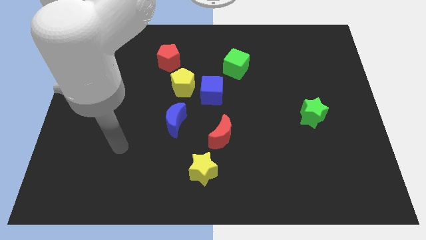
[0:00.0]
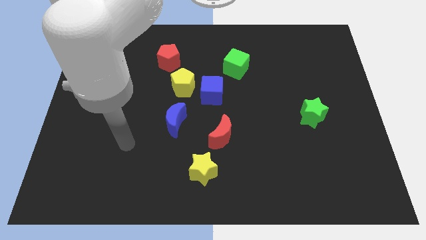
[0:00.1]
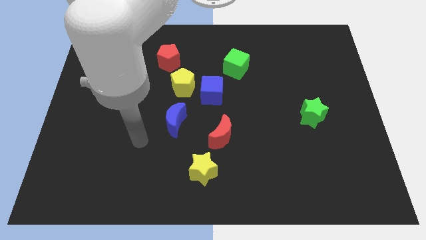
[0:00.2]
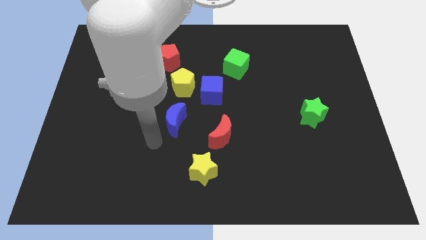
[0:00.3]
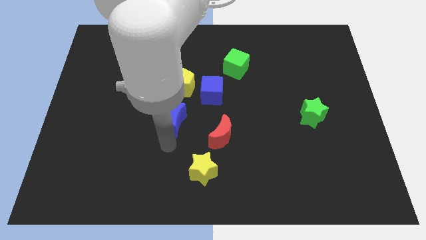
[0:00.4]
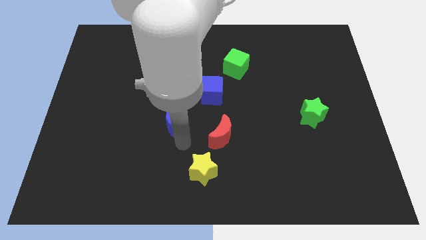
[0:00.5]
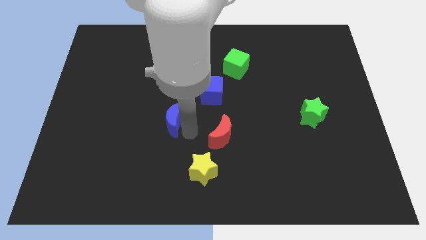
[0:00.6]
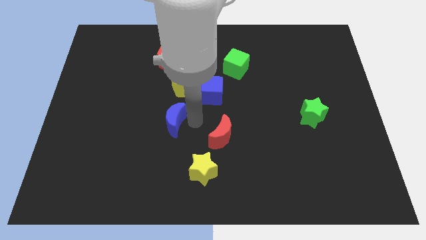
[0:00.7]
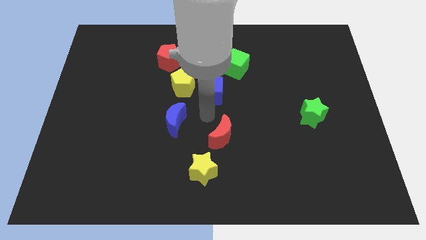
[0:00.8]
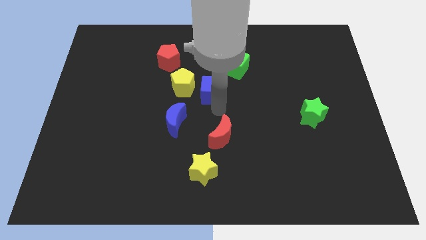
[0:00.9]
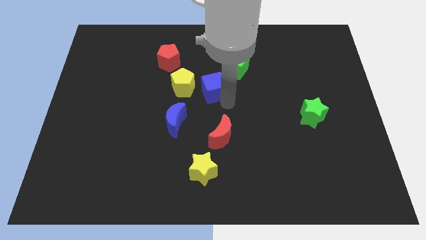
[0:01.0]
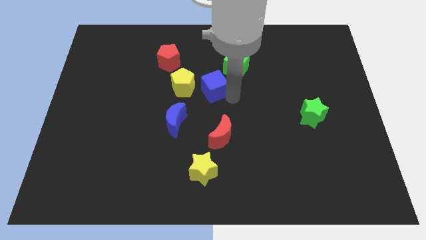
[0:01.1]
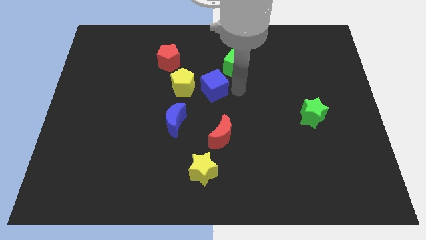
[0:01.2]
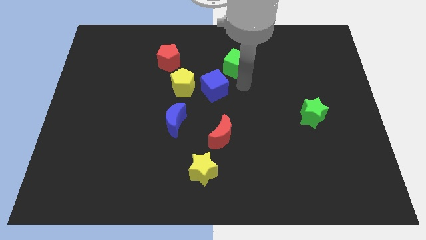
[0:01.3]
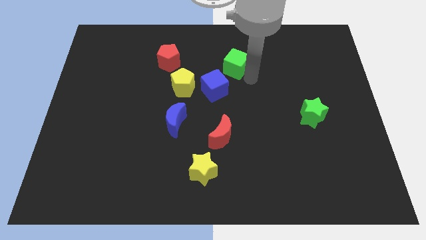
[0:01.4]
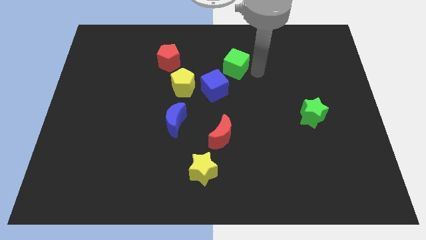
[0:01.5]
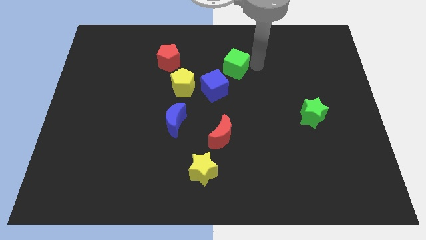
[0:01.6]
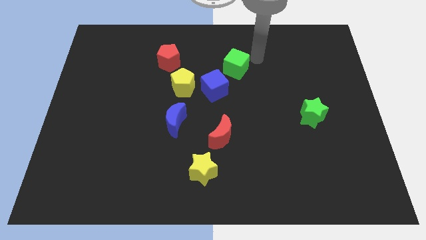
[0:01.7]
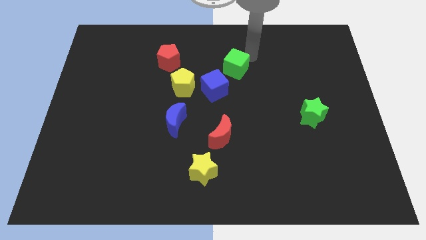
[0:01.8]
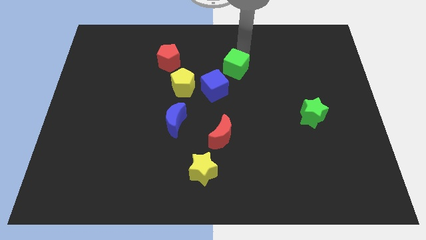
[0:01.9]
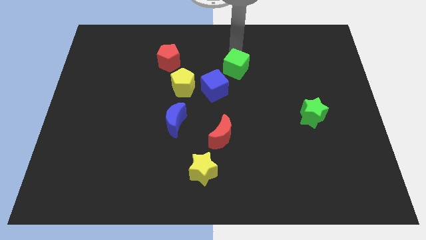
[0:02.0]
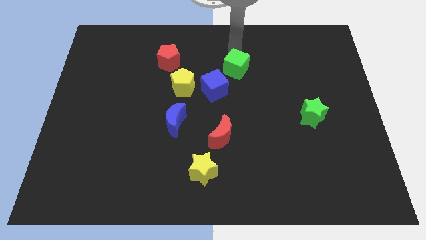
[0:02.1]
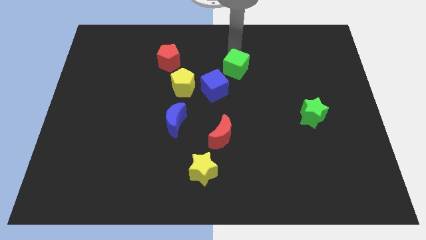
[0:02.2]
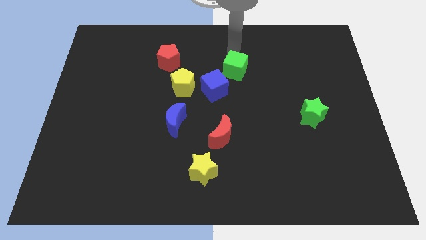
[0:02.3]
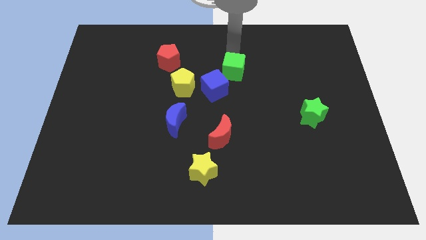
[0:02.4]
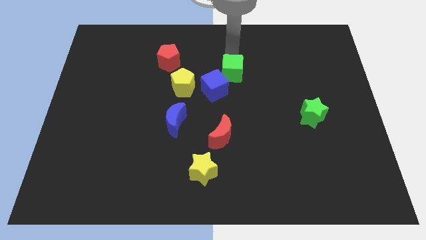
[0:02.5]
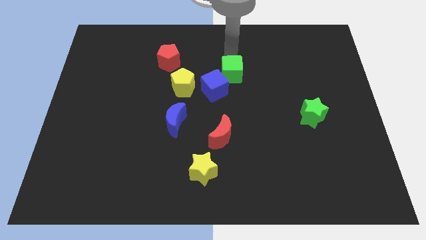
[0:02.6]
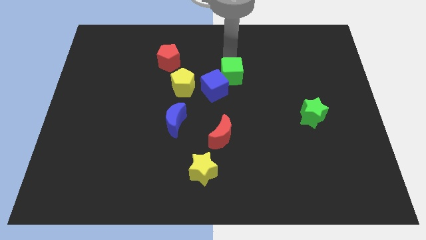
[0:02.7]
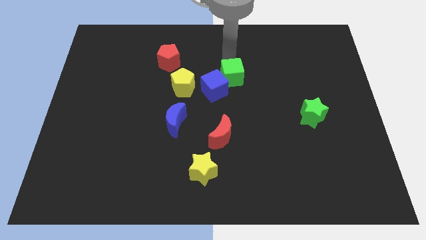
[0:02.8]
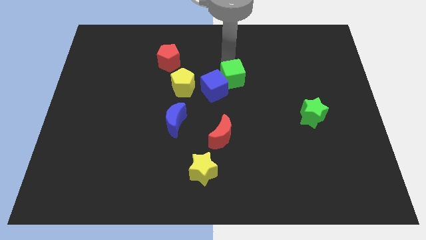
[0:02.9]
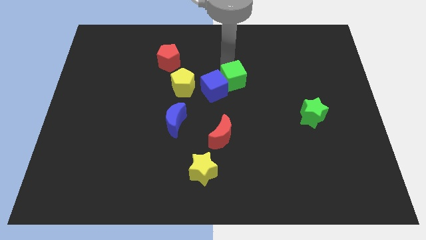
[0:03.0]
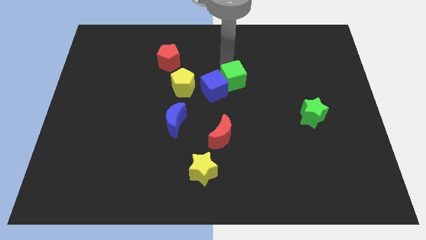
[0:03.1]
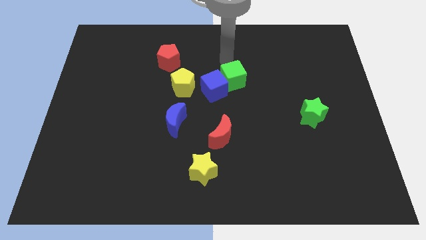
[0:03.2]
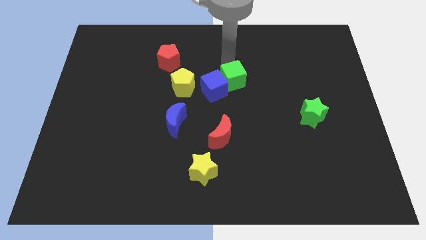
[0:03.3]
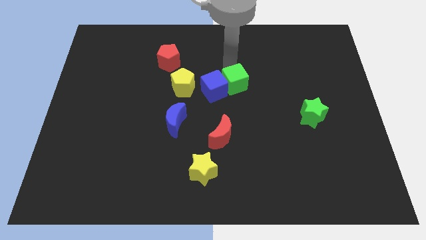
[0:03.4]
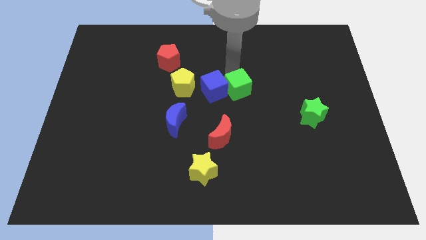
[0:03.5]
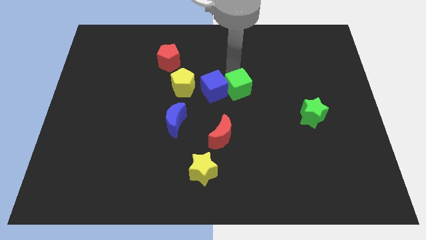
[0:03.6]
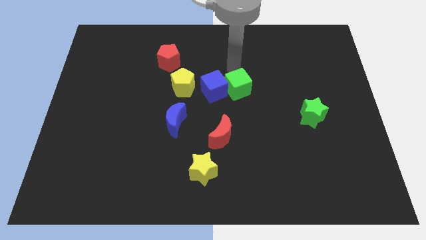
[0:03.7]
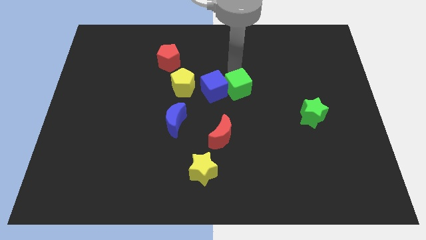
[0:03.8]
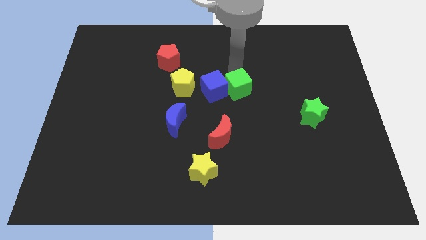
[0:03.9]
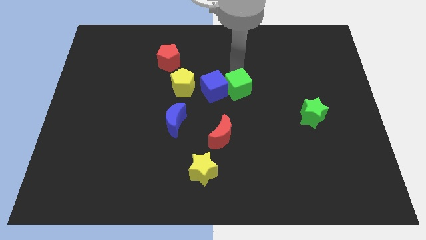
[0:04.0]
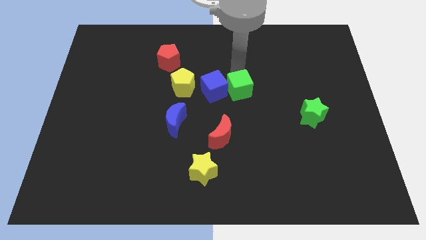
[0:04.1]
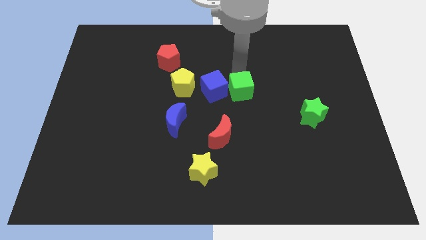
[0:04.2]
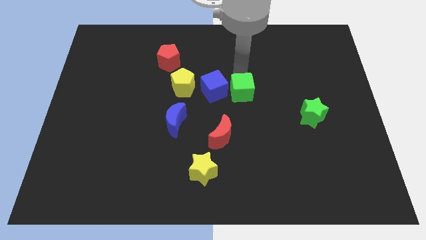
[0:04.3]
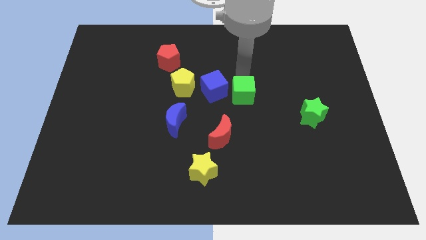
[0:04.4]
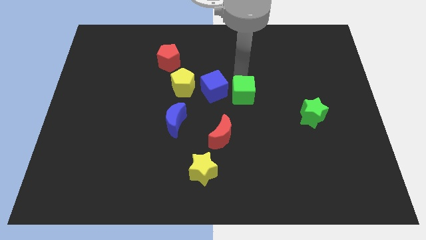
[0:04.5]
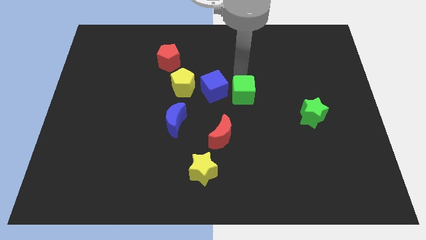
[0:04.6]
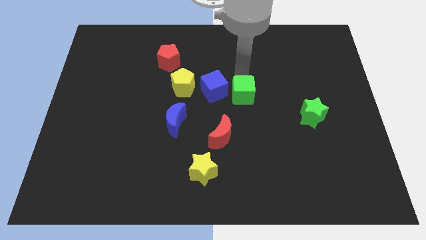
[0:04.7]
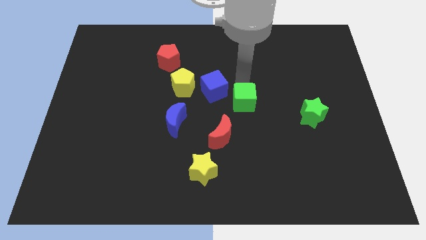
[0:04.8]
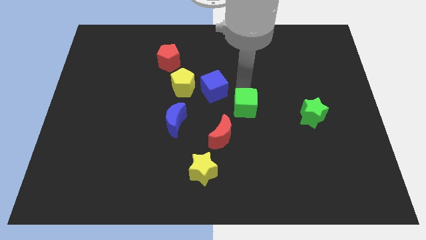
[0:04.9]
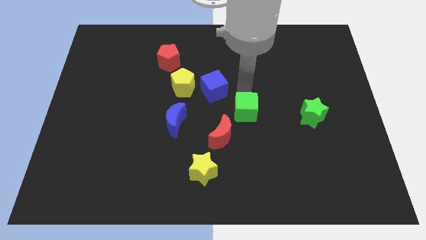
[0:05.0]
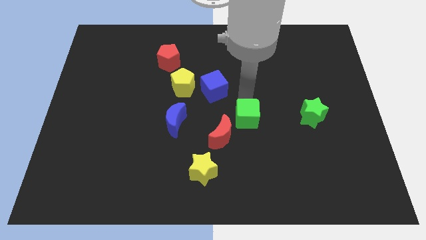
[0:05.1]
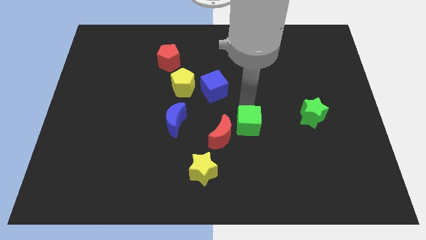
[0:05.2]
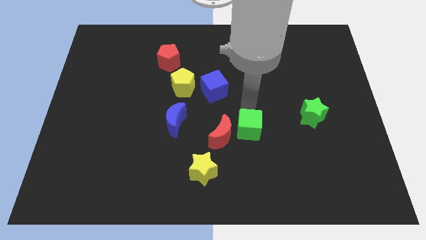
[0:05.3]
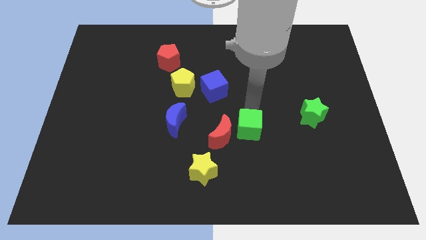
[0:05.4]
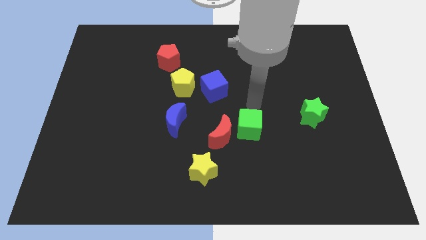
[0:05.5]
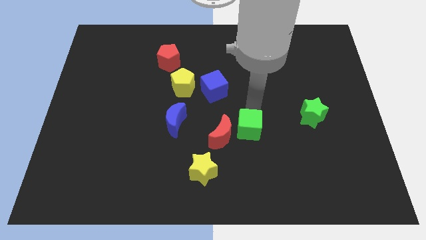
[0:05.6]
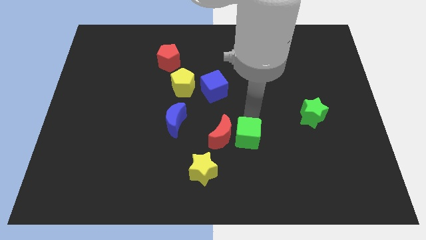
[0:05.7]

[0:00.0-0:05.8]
slide the green cube down

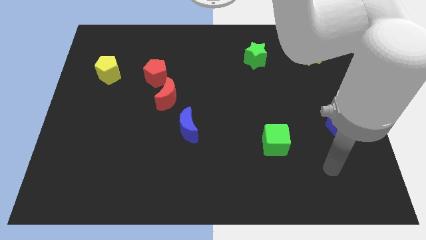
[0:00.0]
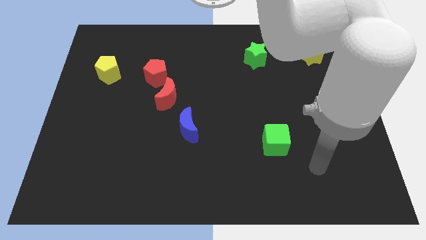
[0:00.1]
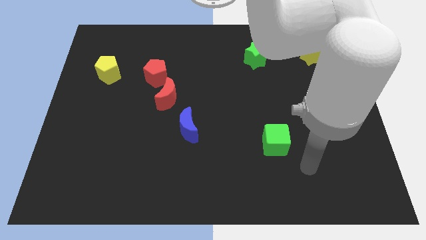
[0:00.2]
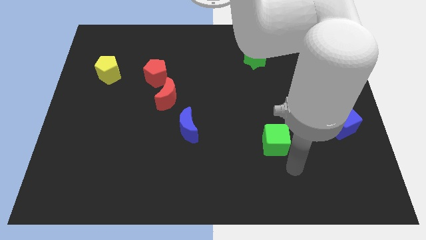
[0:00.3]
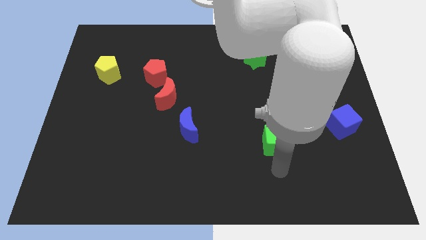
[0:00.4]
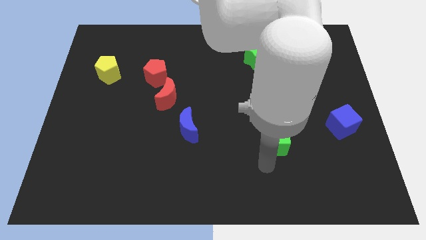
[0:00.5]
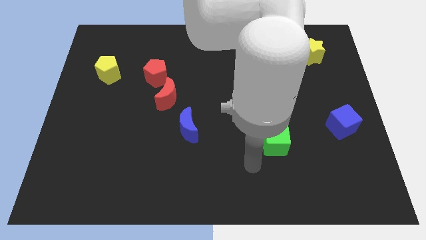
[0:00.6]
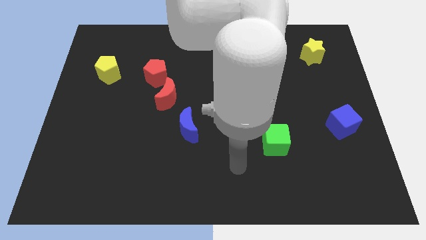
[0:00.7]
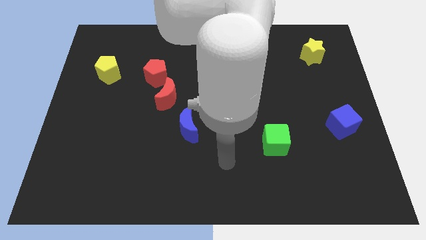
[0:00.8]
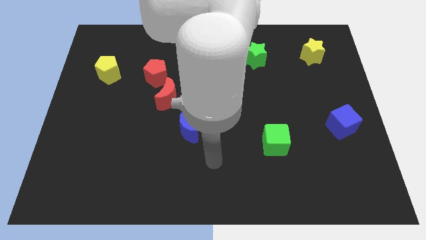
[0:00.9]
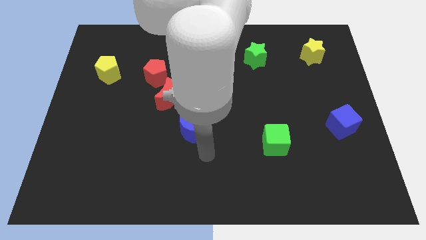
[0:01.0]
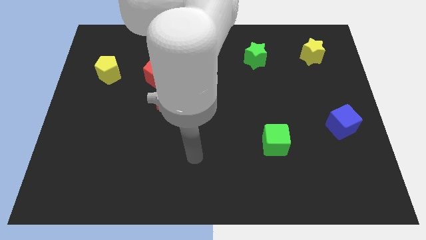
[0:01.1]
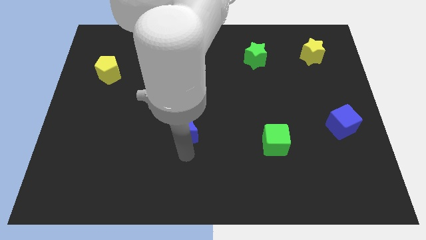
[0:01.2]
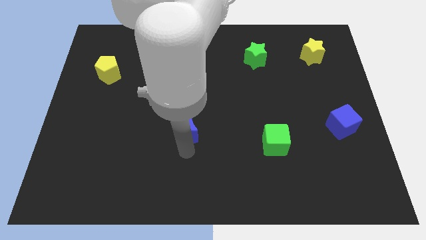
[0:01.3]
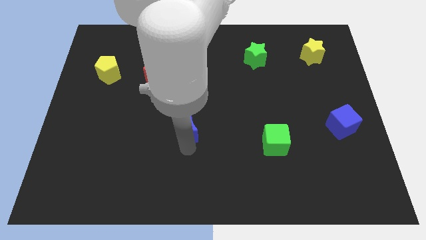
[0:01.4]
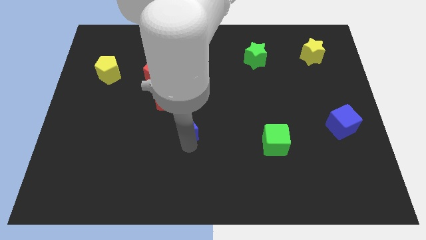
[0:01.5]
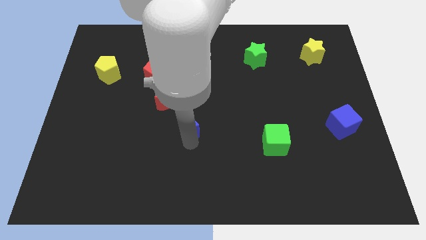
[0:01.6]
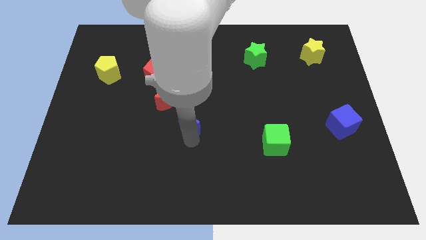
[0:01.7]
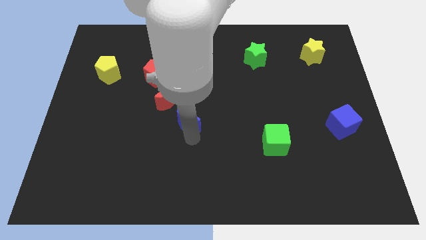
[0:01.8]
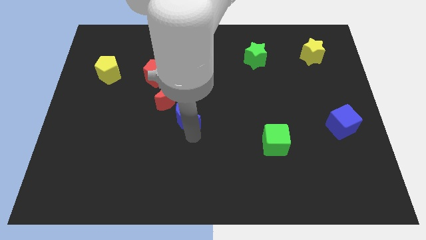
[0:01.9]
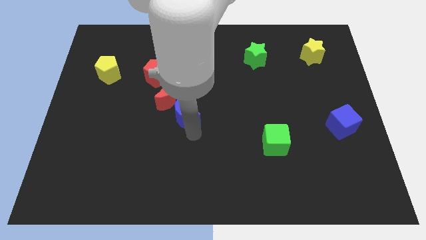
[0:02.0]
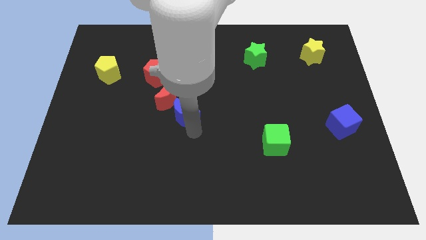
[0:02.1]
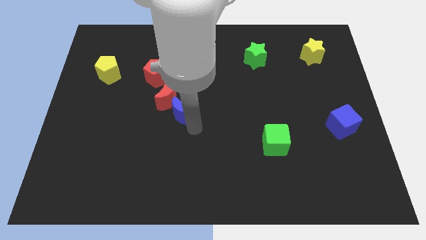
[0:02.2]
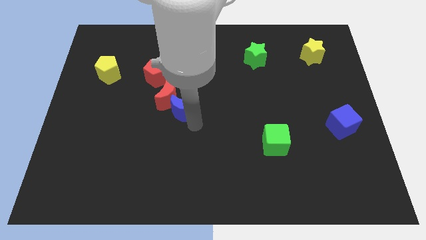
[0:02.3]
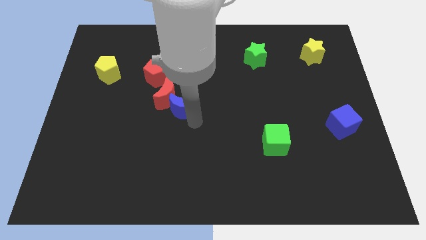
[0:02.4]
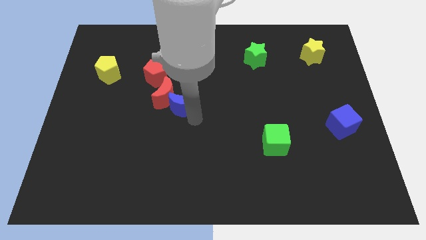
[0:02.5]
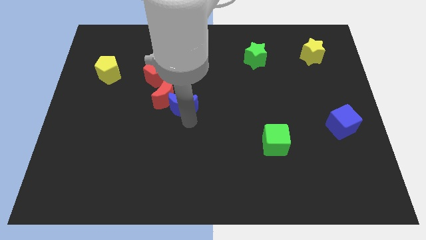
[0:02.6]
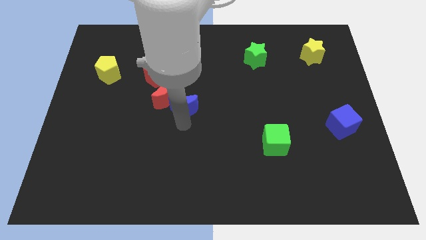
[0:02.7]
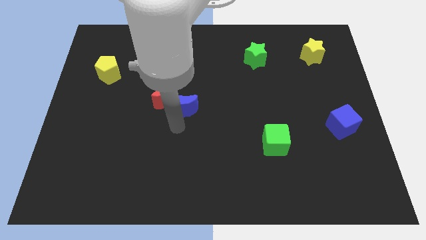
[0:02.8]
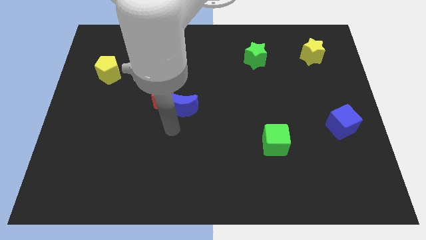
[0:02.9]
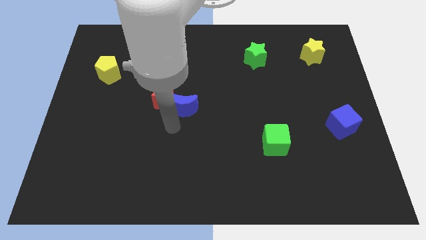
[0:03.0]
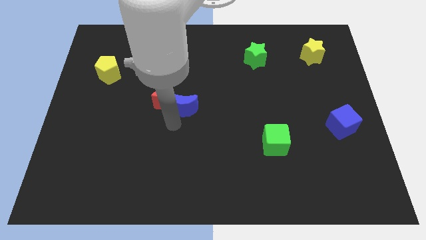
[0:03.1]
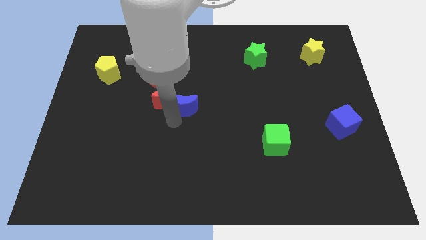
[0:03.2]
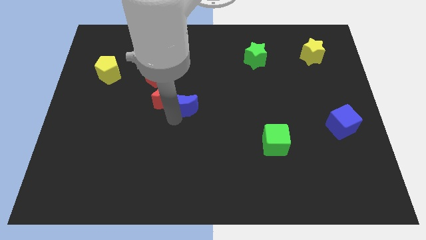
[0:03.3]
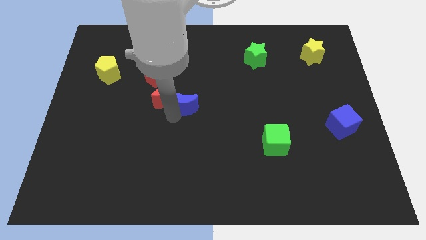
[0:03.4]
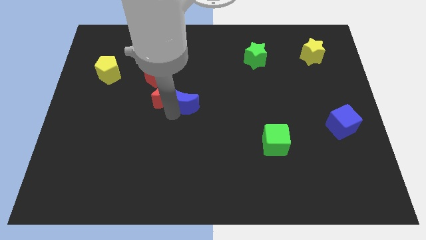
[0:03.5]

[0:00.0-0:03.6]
slide the blue moon a little bit up
